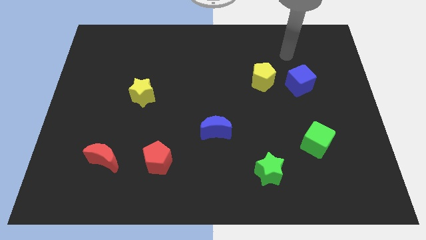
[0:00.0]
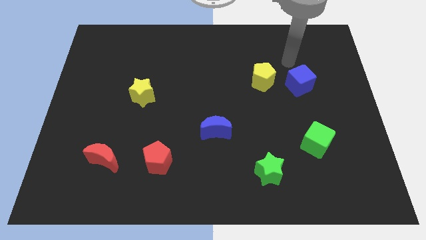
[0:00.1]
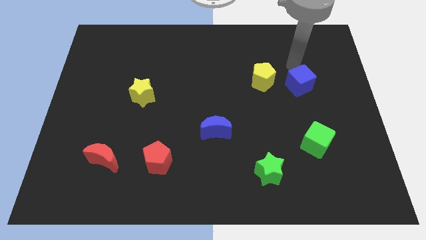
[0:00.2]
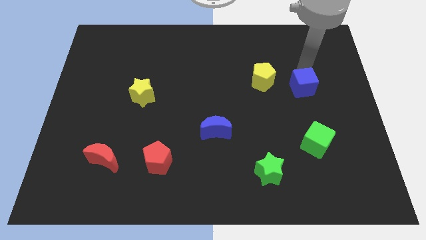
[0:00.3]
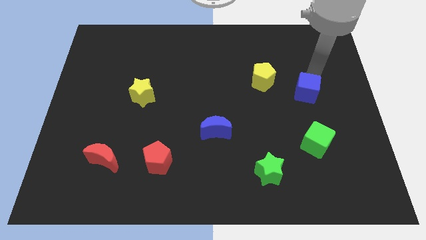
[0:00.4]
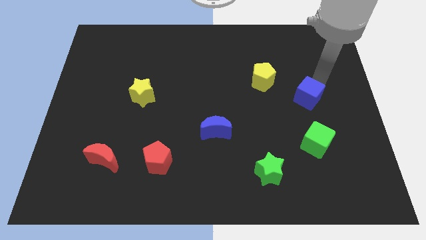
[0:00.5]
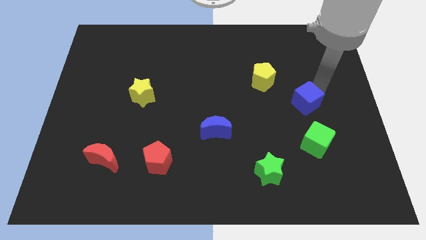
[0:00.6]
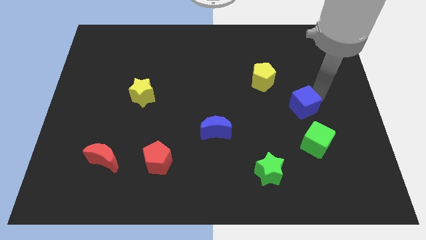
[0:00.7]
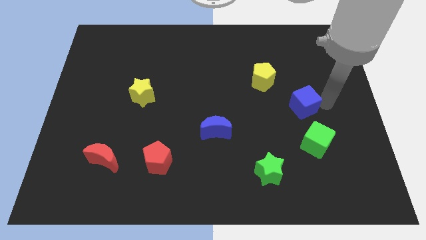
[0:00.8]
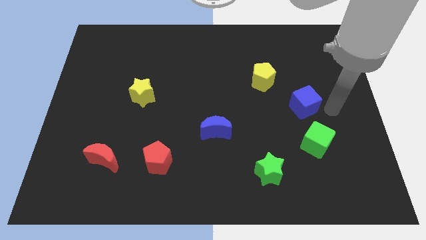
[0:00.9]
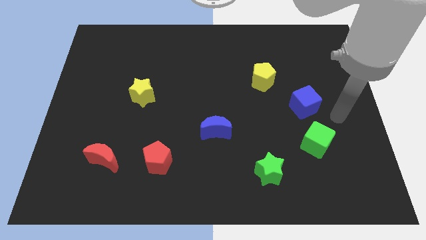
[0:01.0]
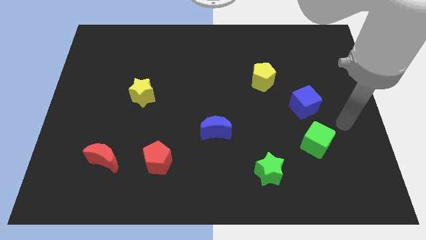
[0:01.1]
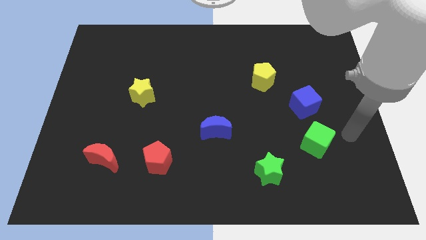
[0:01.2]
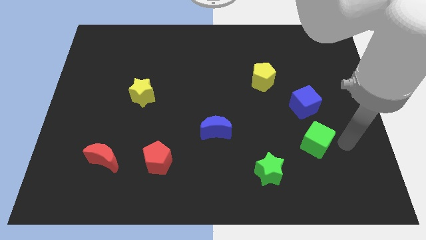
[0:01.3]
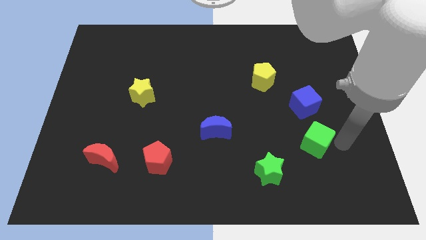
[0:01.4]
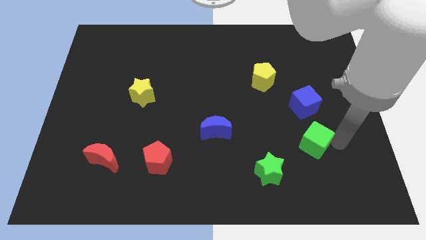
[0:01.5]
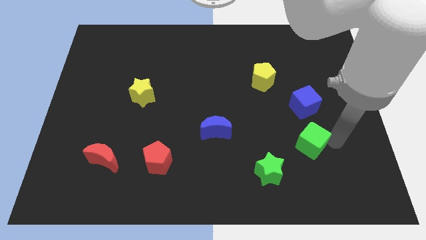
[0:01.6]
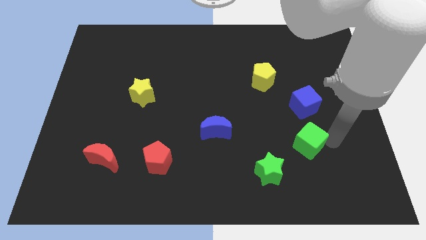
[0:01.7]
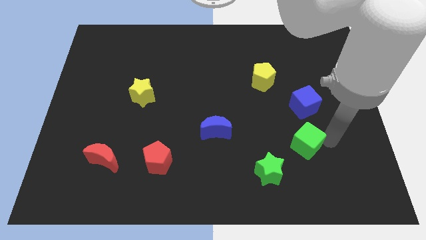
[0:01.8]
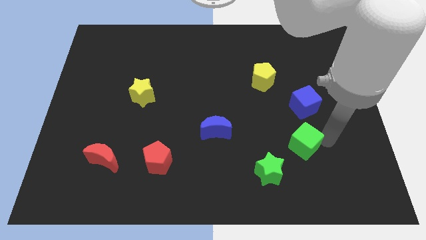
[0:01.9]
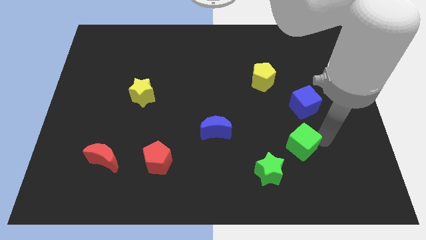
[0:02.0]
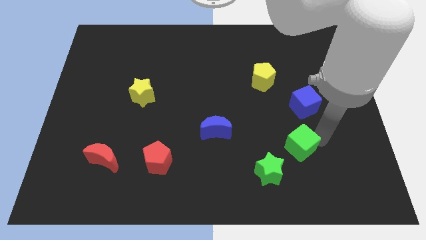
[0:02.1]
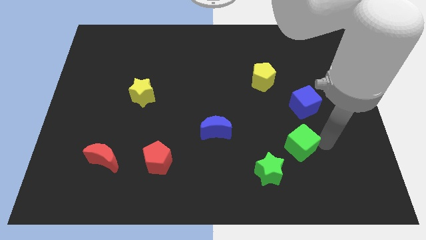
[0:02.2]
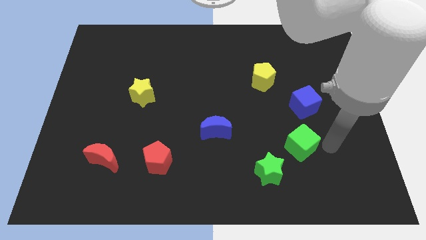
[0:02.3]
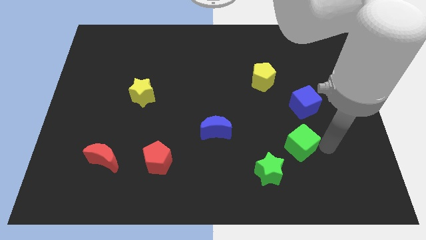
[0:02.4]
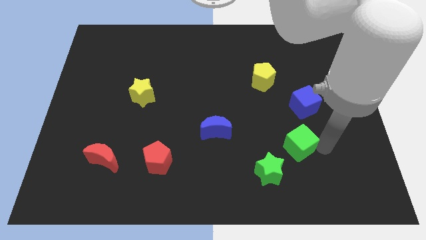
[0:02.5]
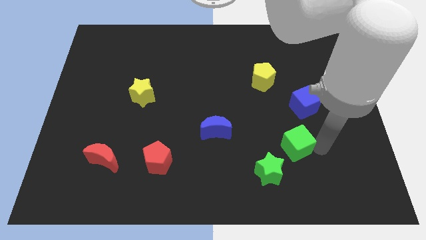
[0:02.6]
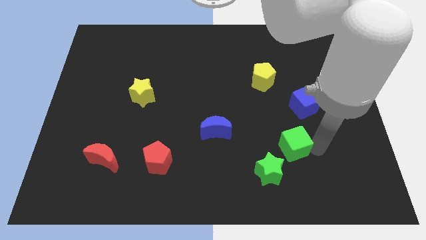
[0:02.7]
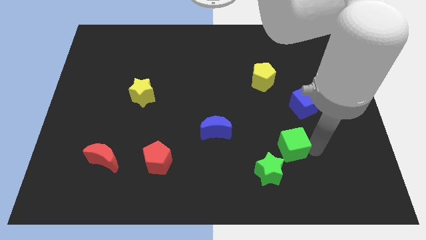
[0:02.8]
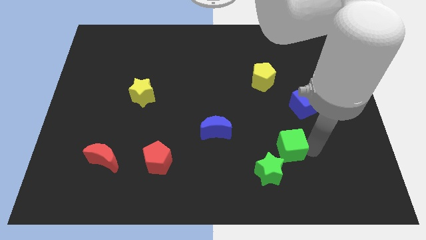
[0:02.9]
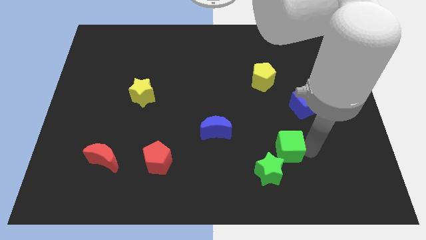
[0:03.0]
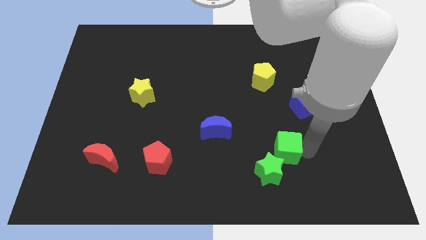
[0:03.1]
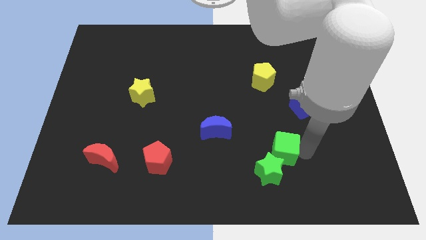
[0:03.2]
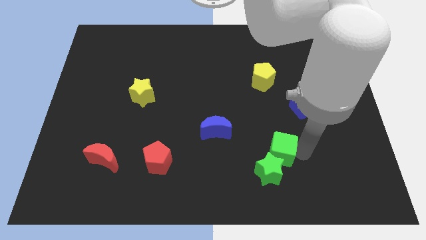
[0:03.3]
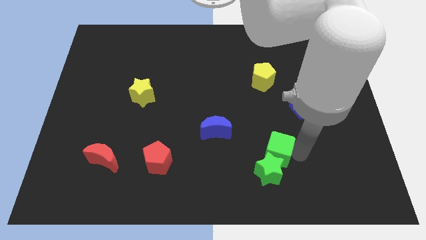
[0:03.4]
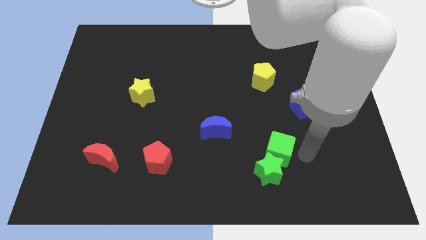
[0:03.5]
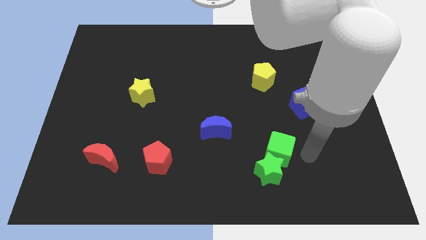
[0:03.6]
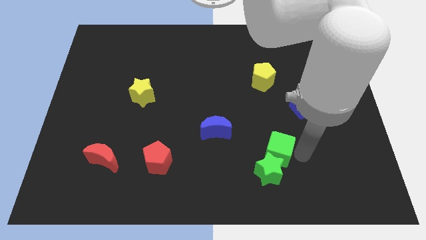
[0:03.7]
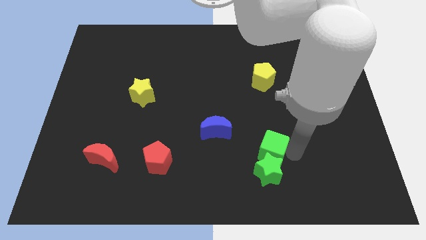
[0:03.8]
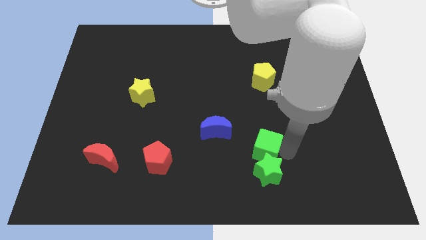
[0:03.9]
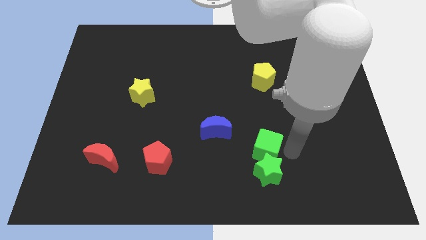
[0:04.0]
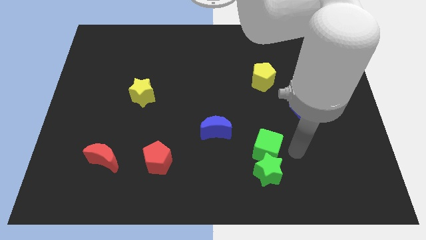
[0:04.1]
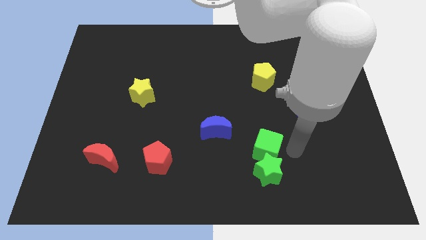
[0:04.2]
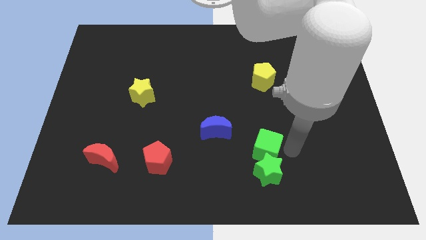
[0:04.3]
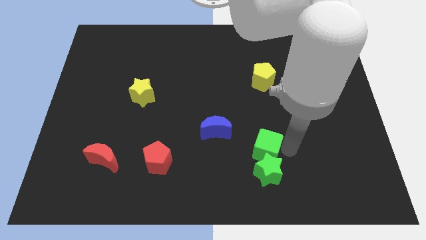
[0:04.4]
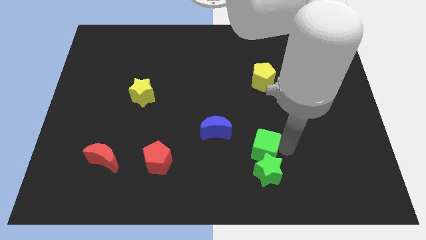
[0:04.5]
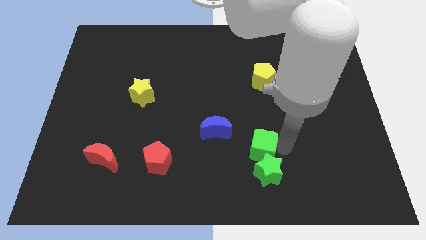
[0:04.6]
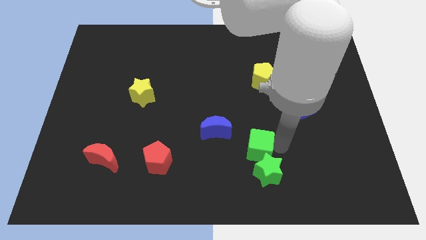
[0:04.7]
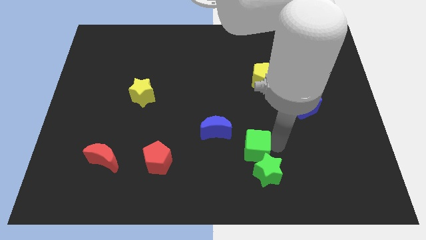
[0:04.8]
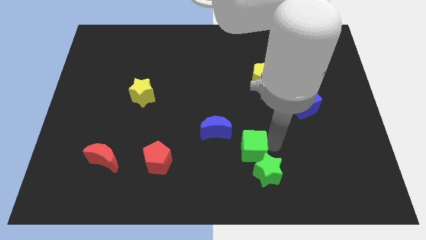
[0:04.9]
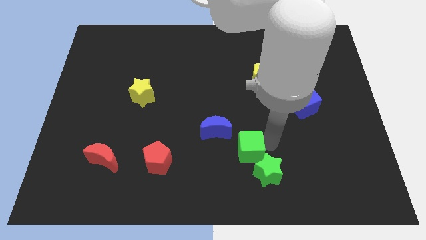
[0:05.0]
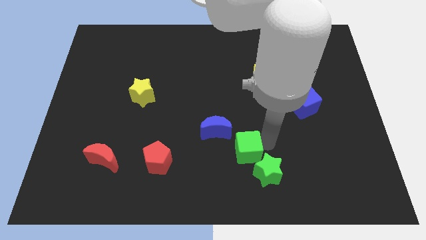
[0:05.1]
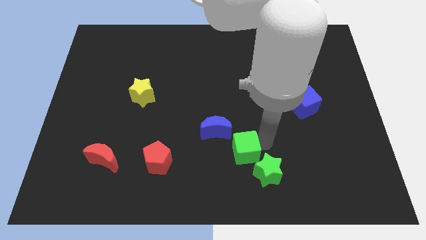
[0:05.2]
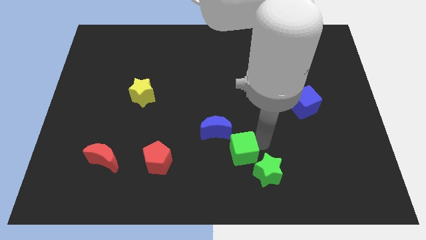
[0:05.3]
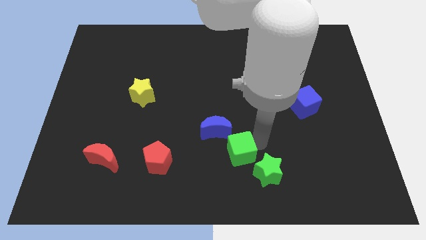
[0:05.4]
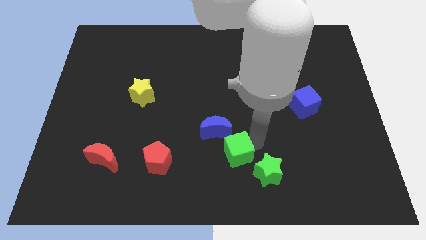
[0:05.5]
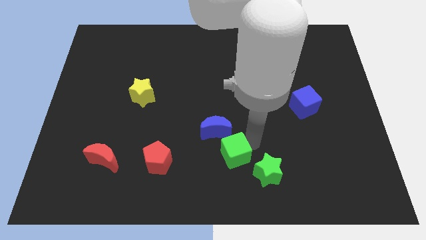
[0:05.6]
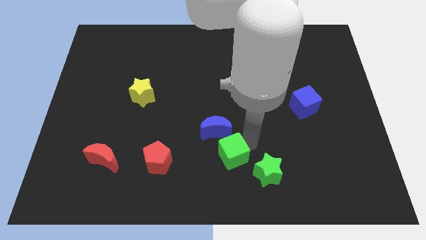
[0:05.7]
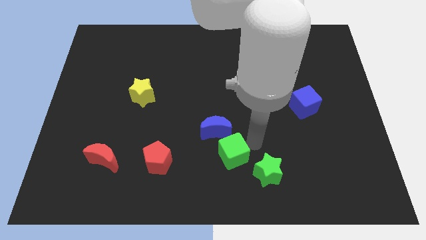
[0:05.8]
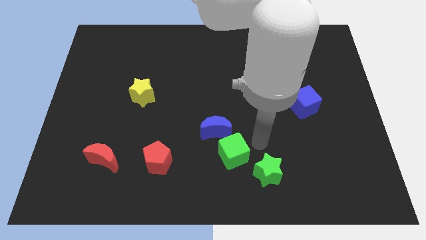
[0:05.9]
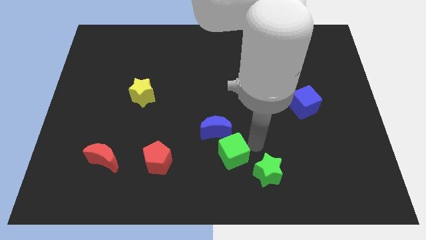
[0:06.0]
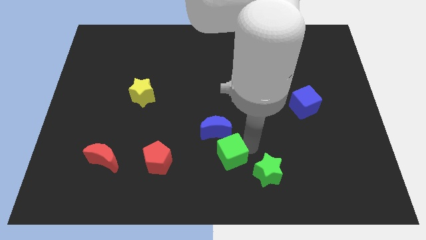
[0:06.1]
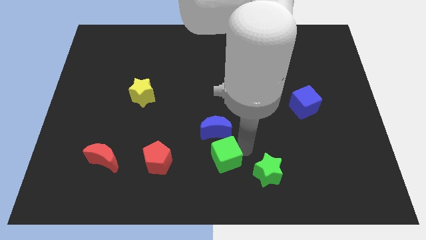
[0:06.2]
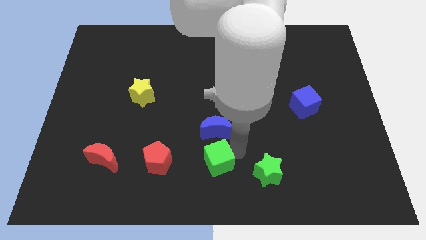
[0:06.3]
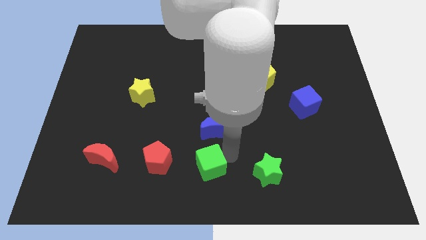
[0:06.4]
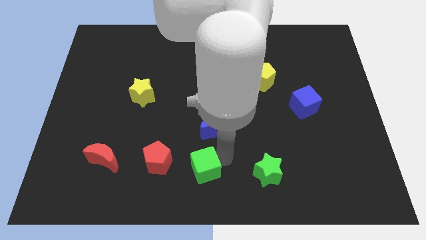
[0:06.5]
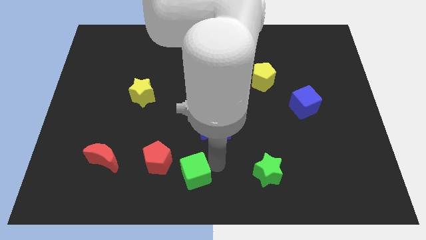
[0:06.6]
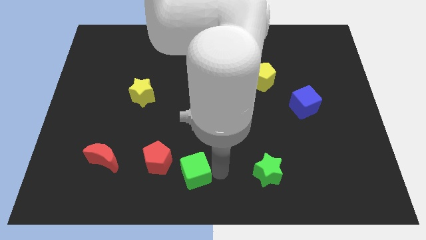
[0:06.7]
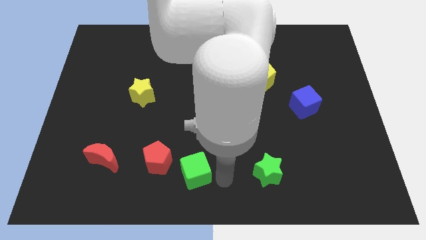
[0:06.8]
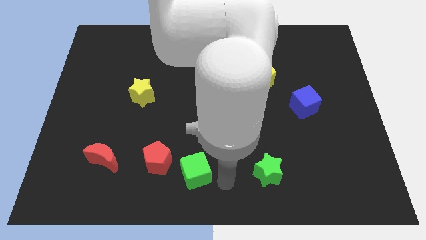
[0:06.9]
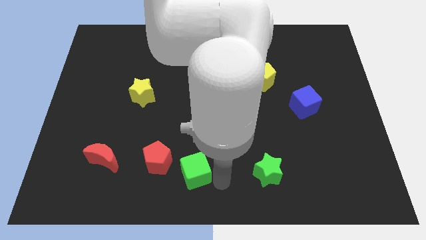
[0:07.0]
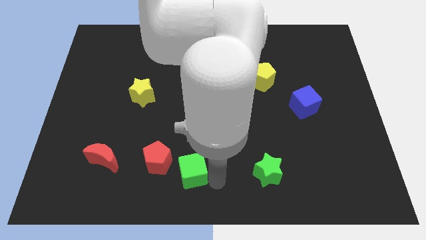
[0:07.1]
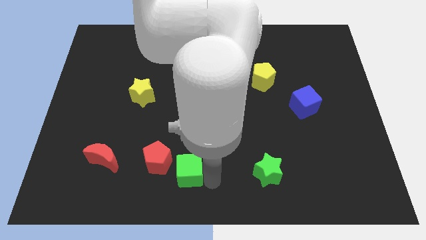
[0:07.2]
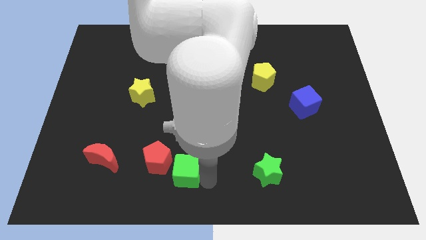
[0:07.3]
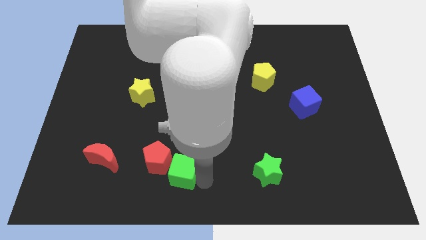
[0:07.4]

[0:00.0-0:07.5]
put the green cube close to the red pentagon
